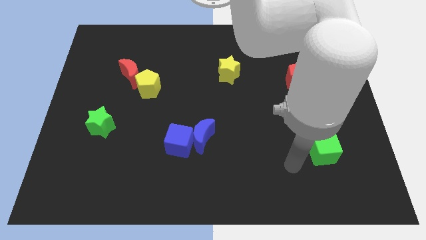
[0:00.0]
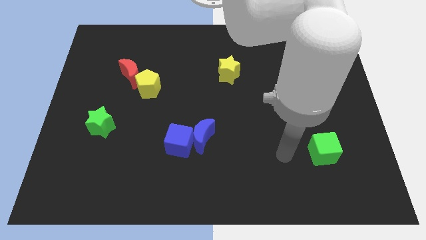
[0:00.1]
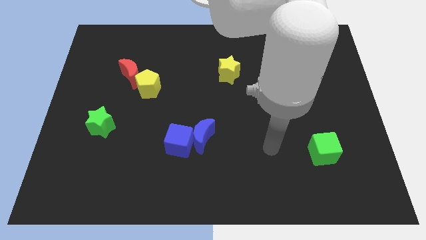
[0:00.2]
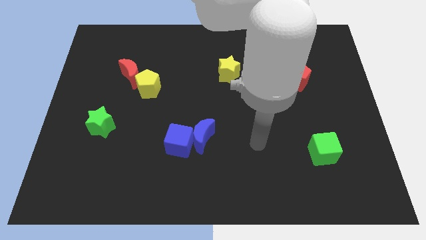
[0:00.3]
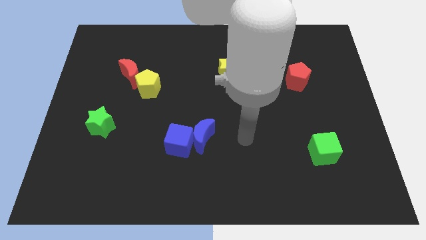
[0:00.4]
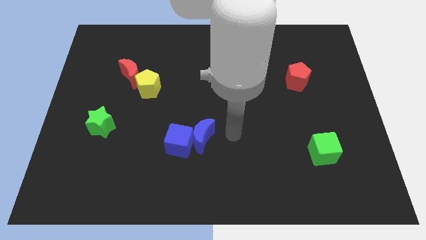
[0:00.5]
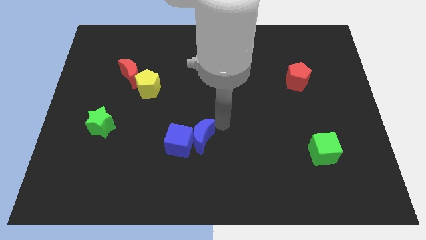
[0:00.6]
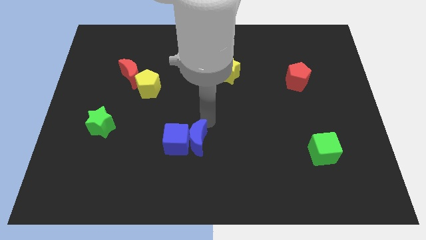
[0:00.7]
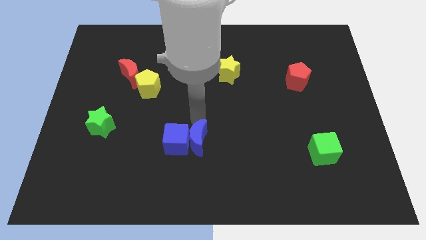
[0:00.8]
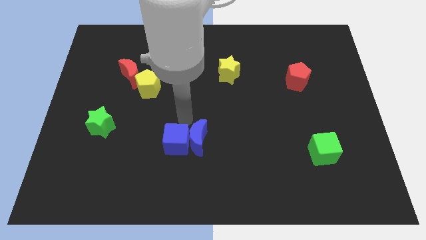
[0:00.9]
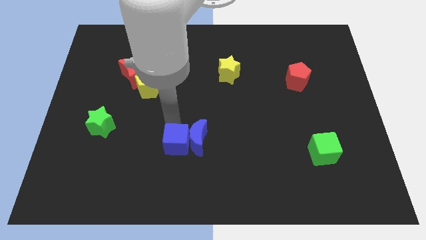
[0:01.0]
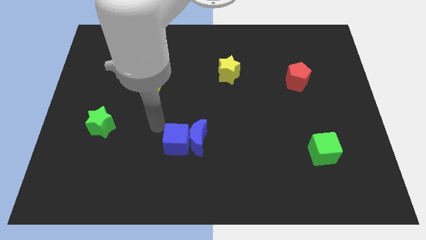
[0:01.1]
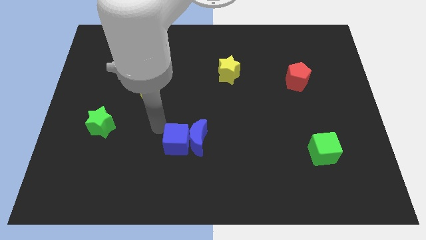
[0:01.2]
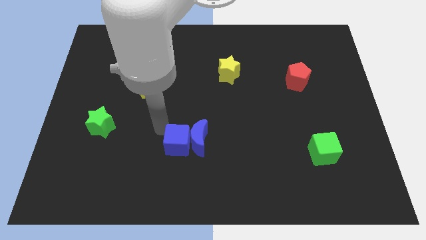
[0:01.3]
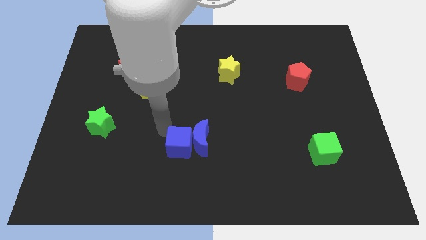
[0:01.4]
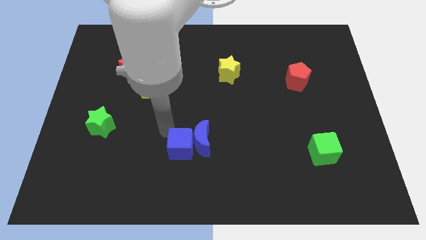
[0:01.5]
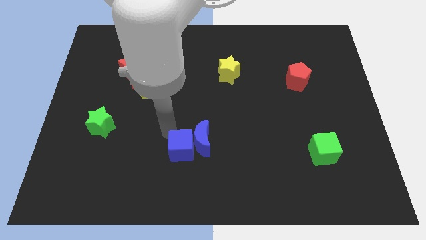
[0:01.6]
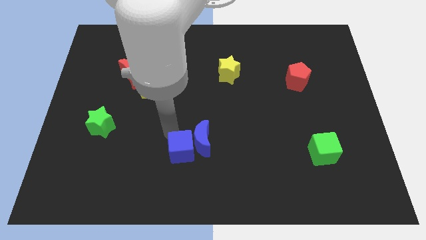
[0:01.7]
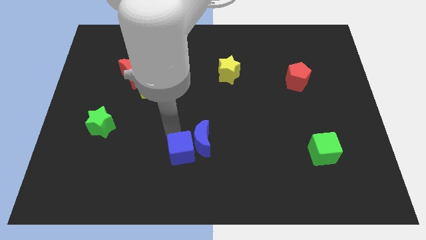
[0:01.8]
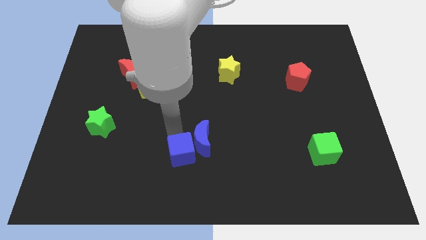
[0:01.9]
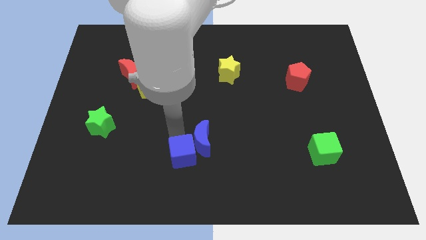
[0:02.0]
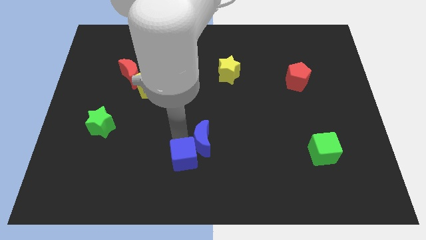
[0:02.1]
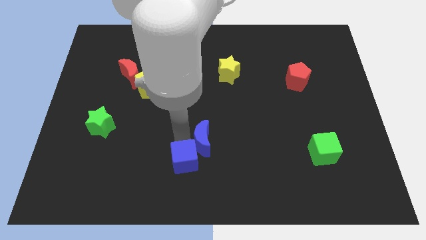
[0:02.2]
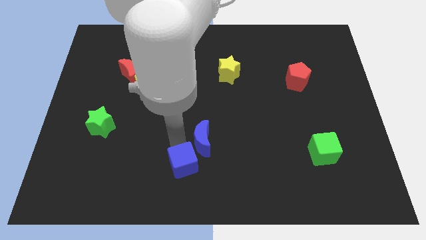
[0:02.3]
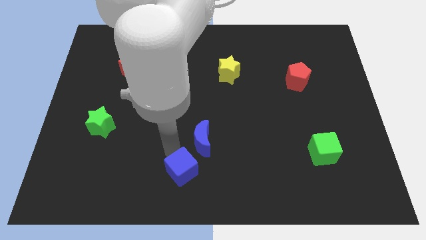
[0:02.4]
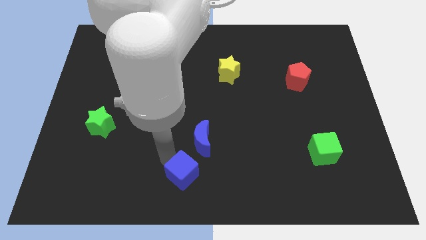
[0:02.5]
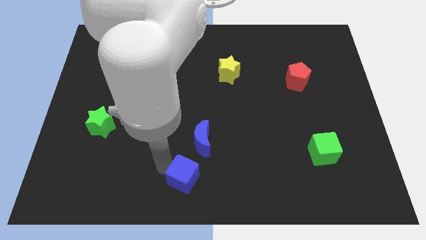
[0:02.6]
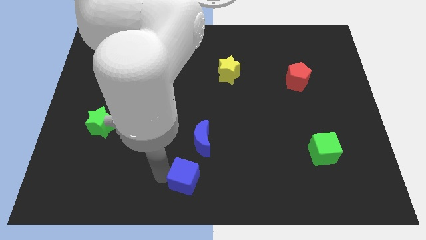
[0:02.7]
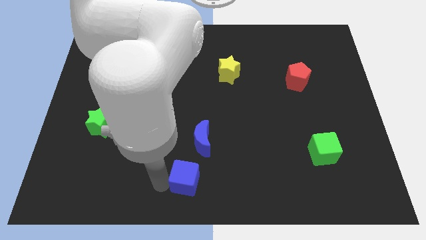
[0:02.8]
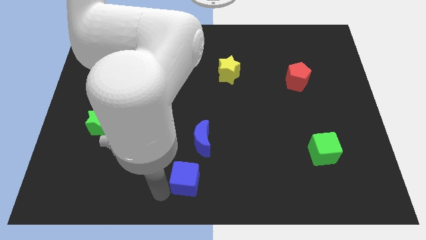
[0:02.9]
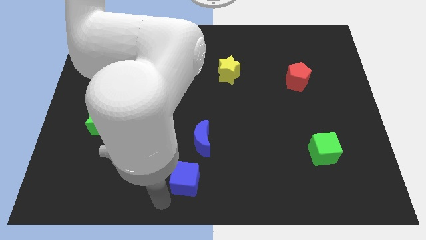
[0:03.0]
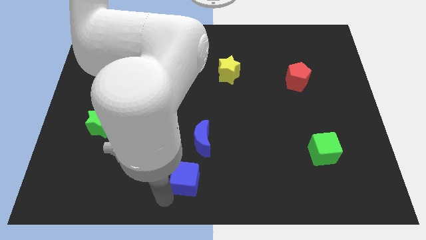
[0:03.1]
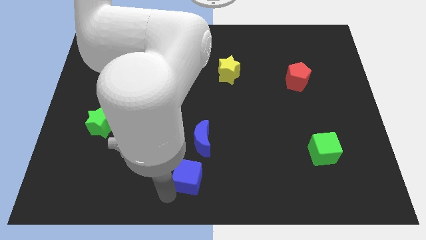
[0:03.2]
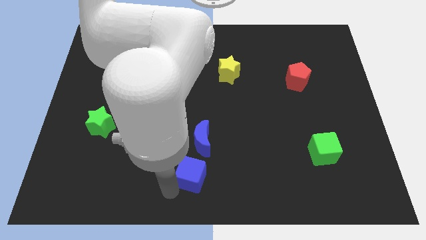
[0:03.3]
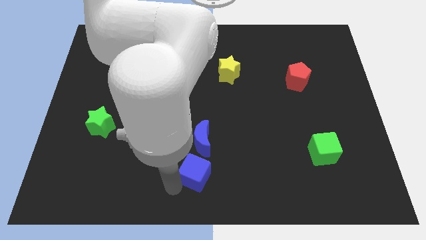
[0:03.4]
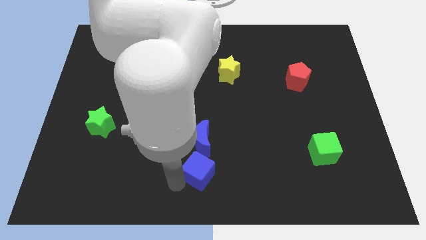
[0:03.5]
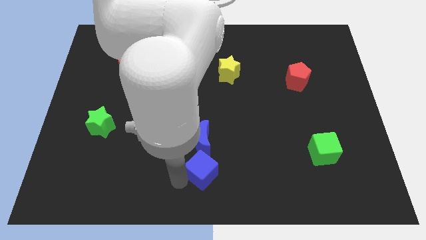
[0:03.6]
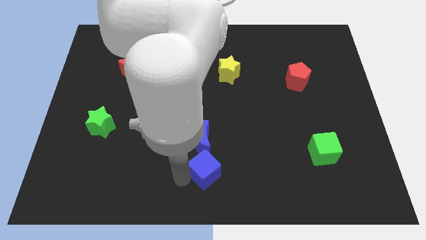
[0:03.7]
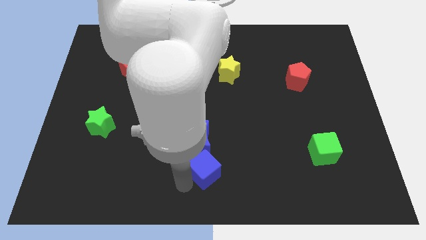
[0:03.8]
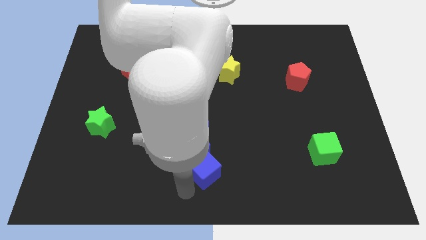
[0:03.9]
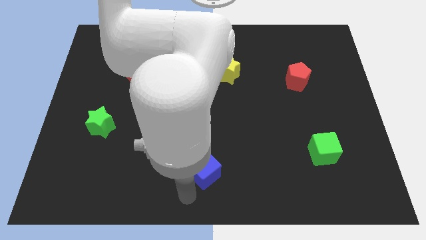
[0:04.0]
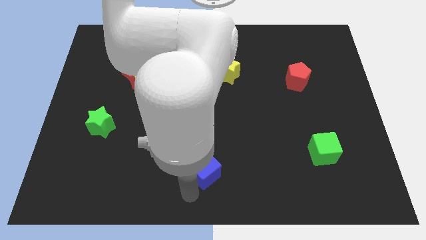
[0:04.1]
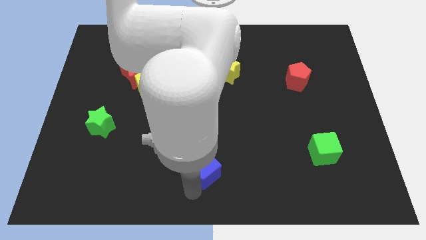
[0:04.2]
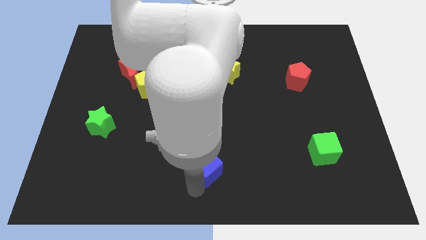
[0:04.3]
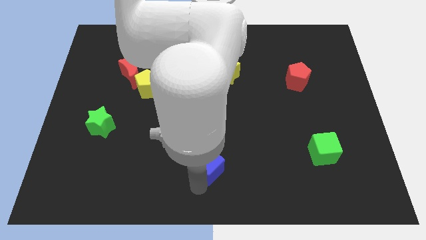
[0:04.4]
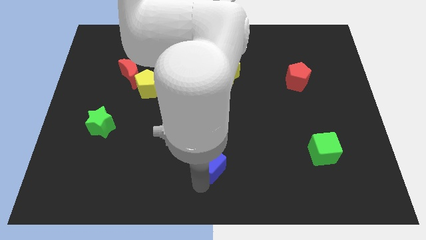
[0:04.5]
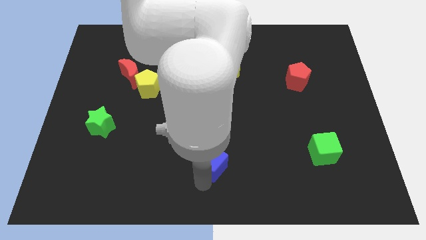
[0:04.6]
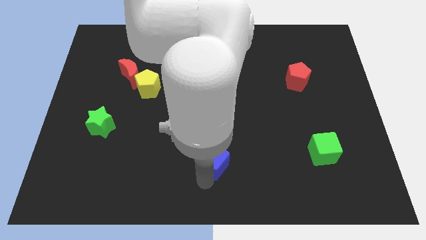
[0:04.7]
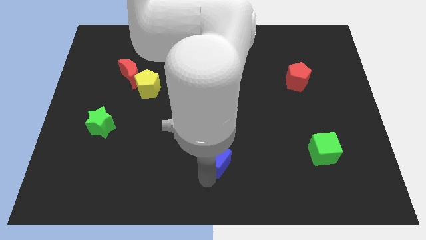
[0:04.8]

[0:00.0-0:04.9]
push the blue cube somewhat right

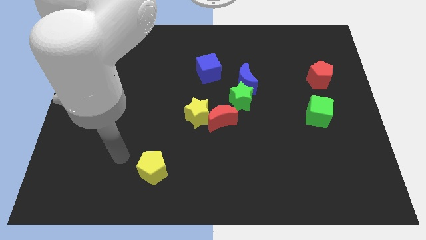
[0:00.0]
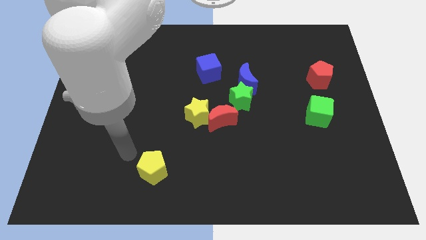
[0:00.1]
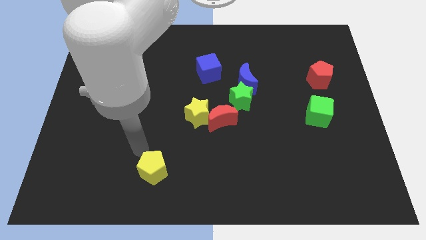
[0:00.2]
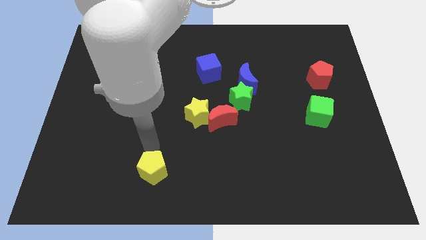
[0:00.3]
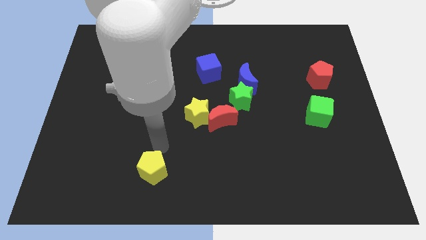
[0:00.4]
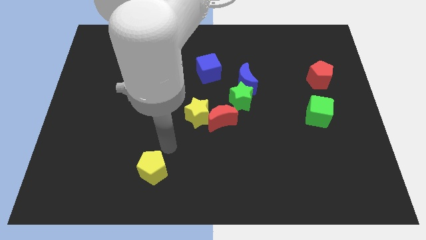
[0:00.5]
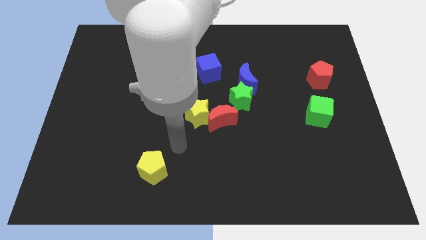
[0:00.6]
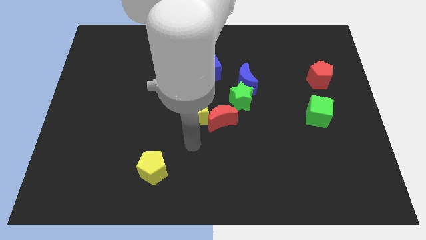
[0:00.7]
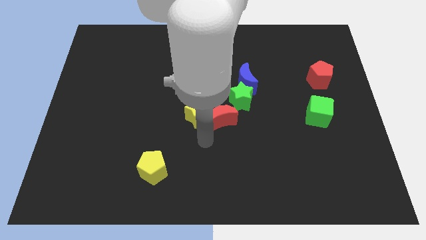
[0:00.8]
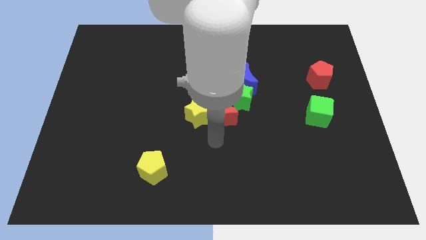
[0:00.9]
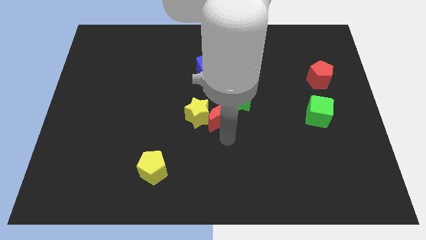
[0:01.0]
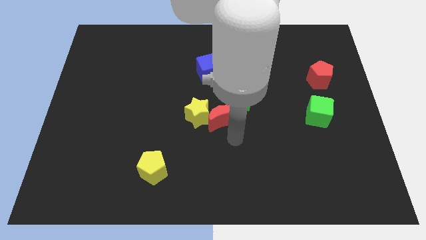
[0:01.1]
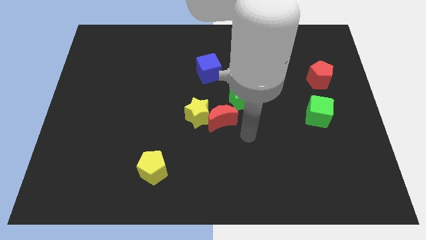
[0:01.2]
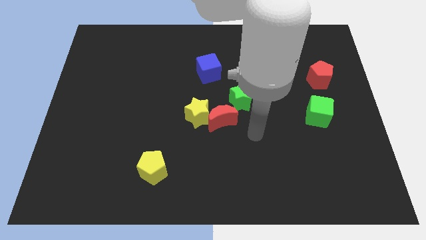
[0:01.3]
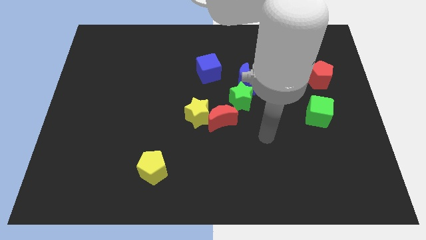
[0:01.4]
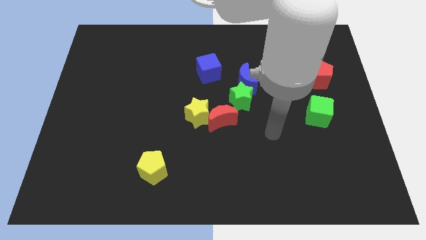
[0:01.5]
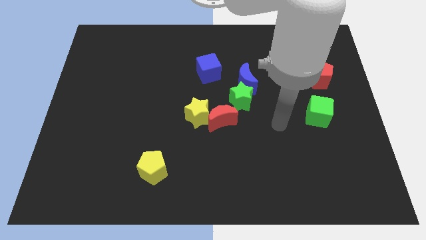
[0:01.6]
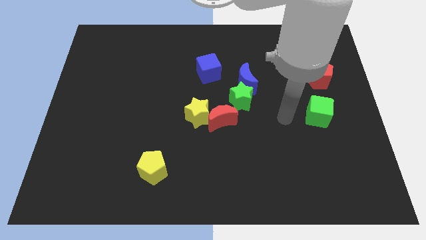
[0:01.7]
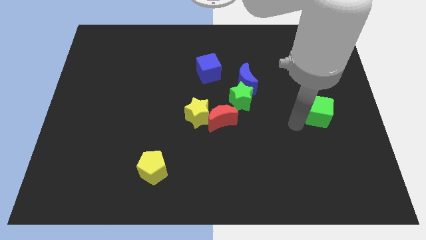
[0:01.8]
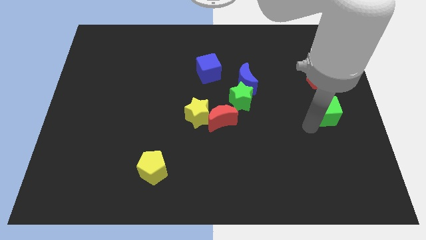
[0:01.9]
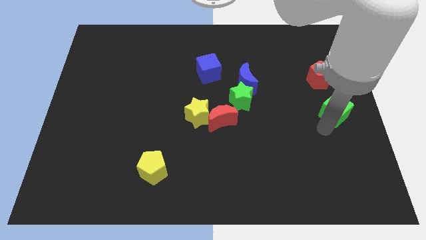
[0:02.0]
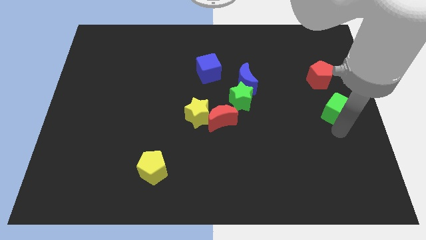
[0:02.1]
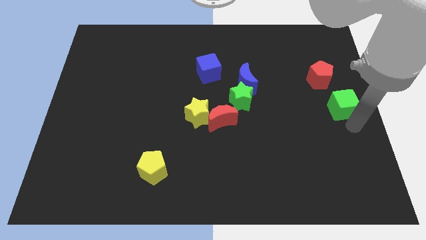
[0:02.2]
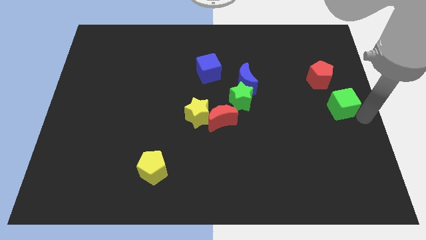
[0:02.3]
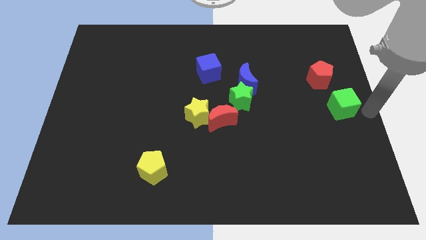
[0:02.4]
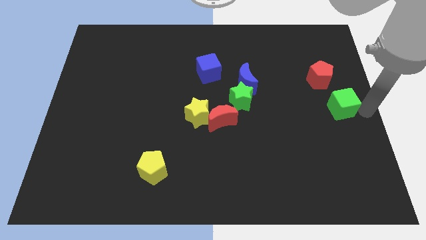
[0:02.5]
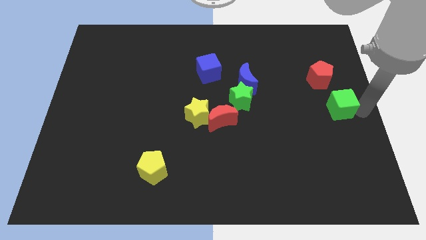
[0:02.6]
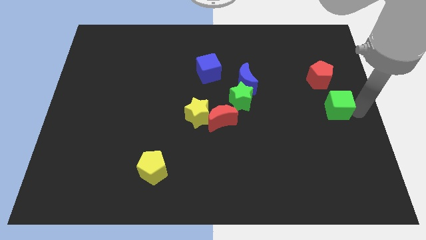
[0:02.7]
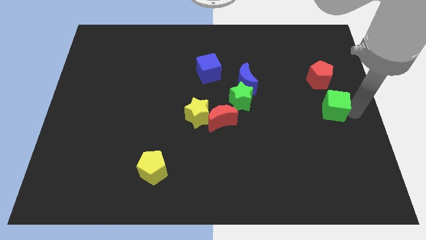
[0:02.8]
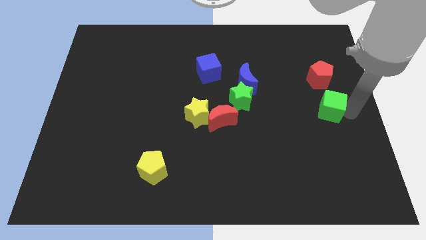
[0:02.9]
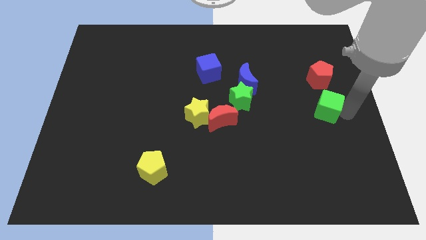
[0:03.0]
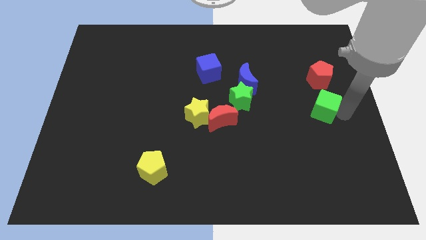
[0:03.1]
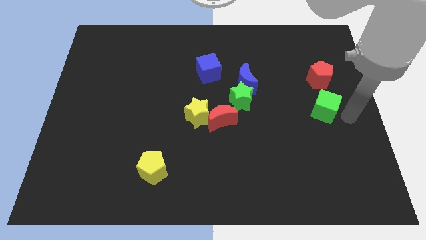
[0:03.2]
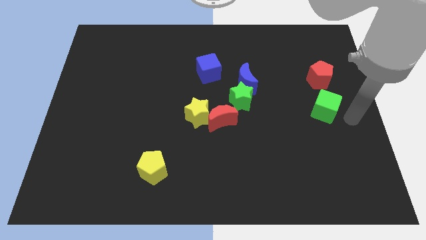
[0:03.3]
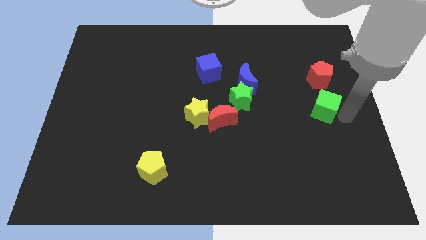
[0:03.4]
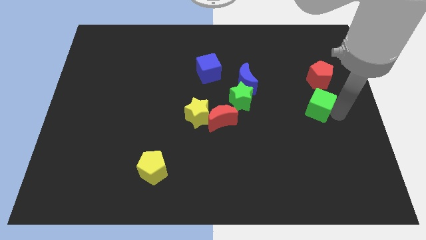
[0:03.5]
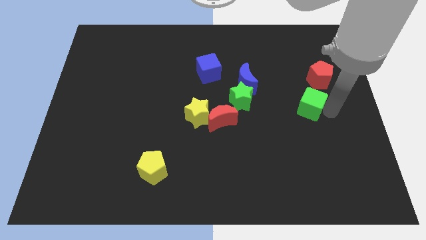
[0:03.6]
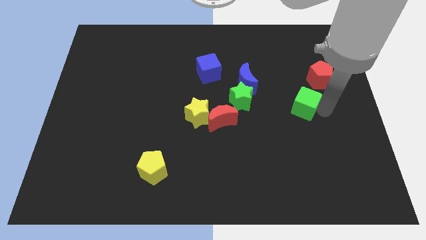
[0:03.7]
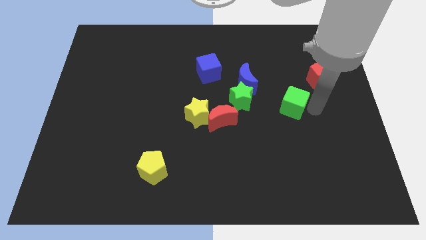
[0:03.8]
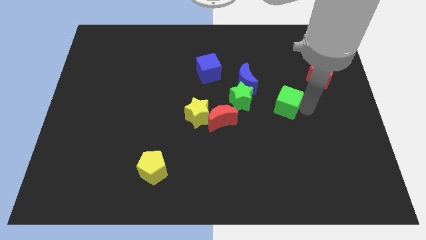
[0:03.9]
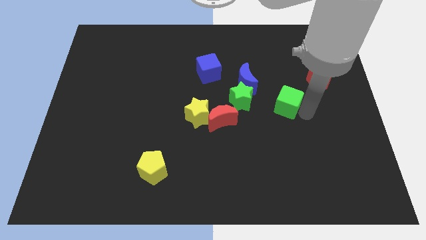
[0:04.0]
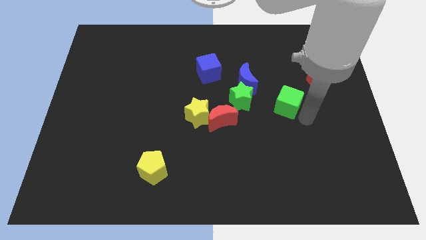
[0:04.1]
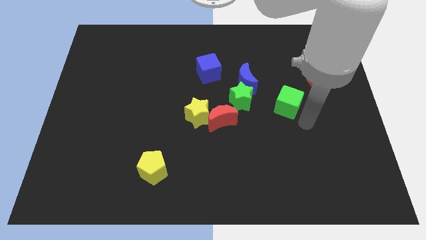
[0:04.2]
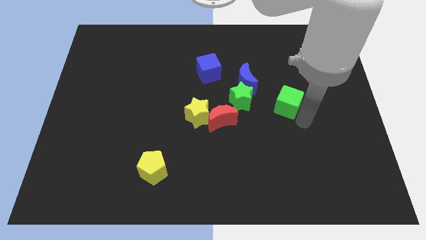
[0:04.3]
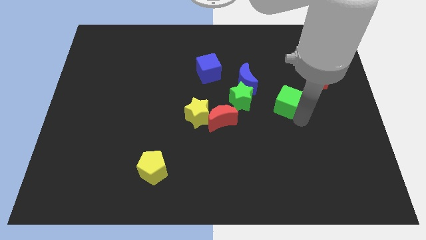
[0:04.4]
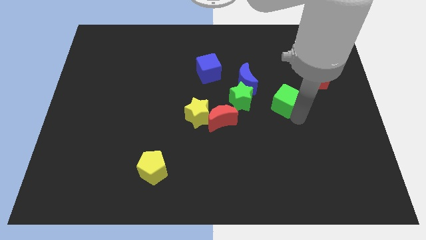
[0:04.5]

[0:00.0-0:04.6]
push the green cube a bit up and then left
